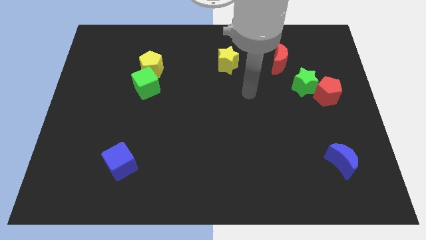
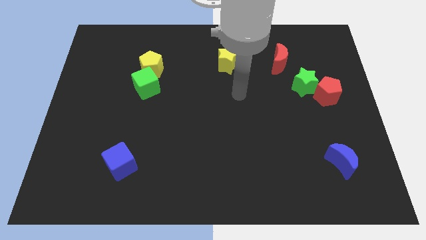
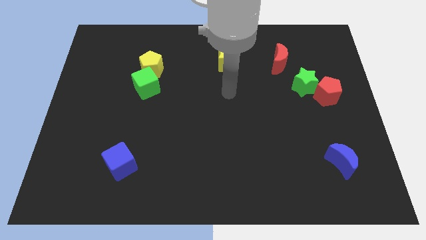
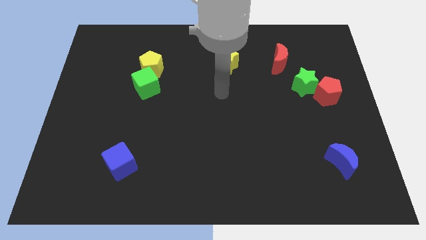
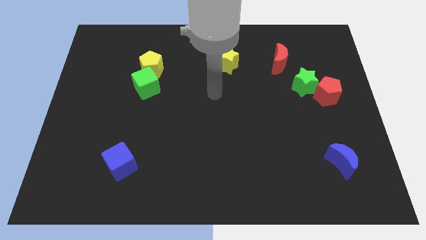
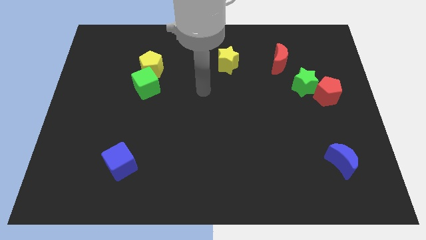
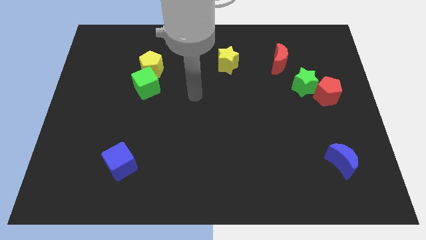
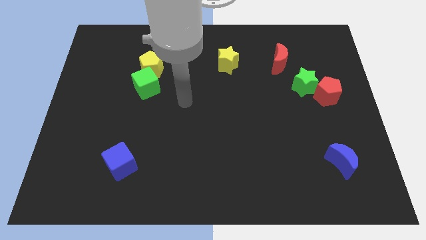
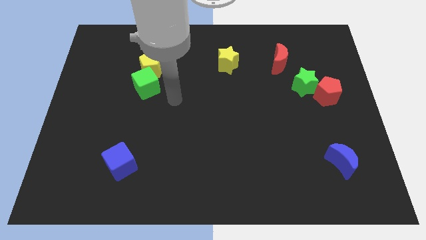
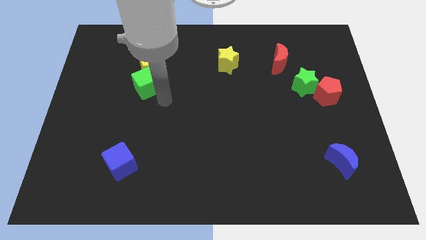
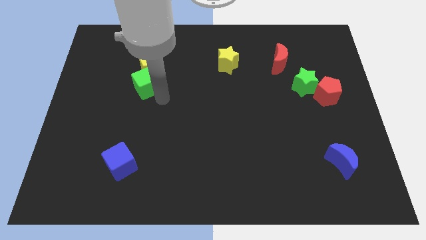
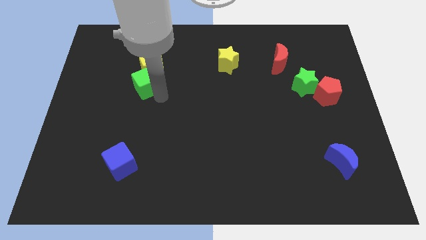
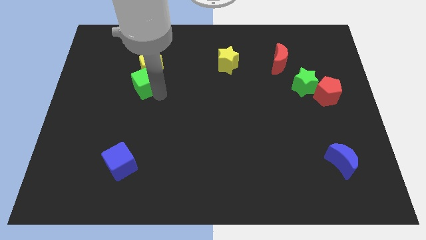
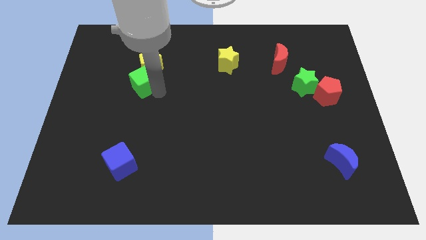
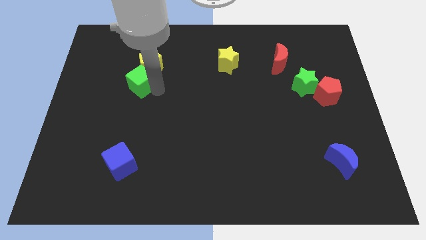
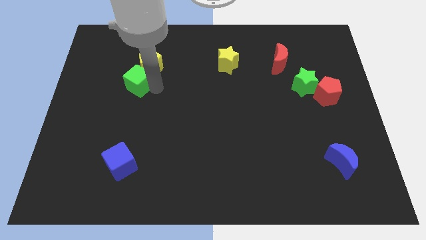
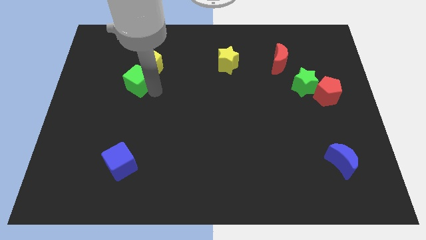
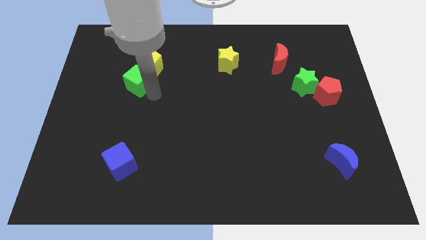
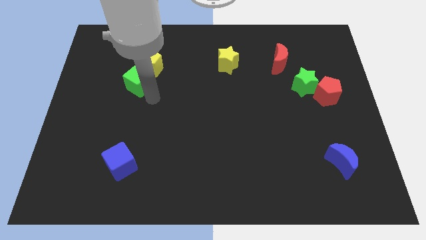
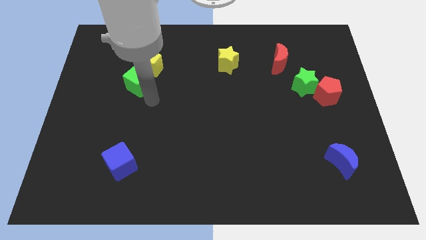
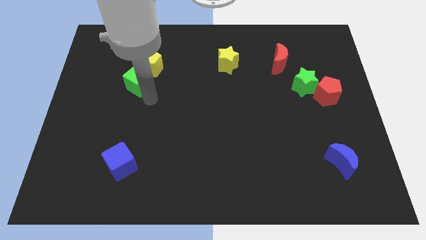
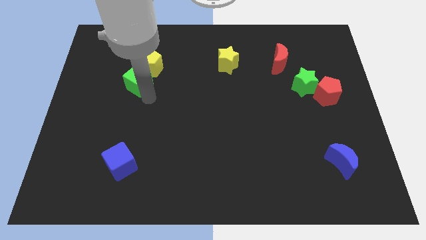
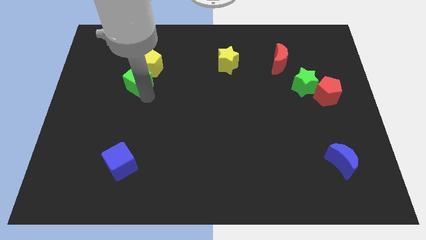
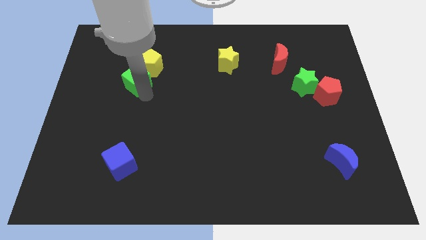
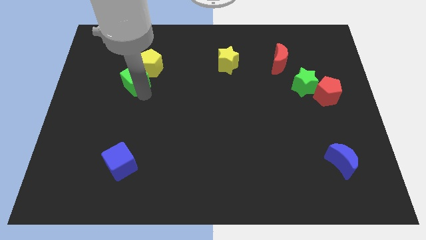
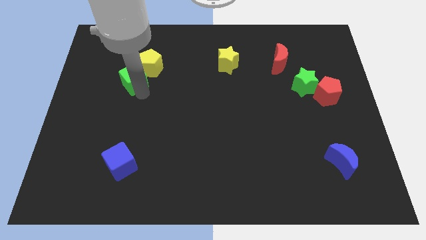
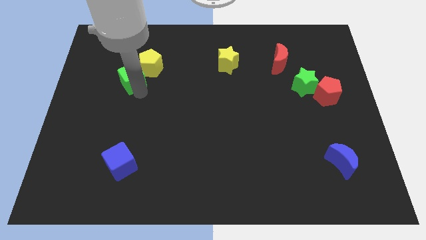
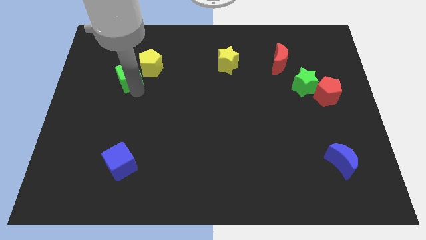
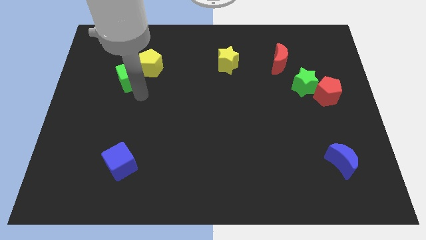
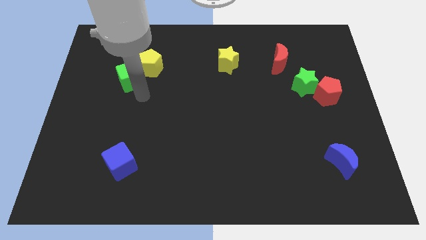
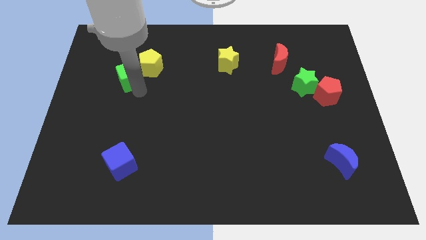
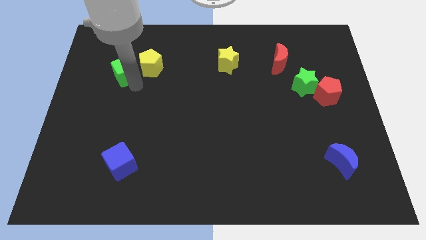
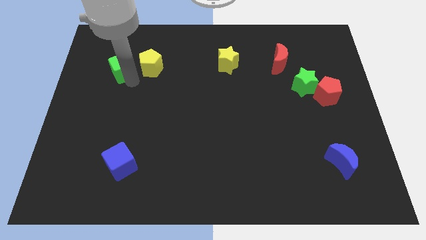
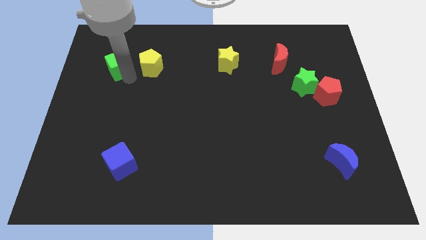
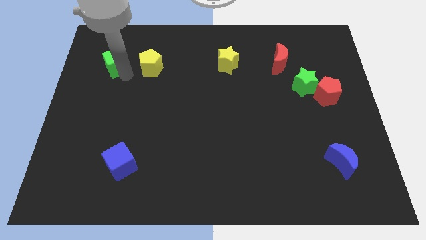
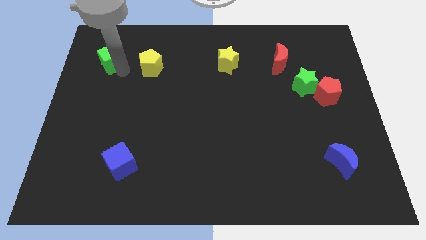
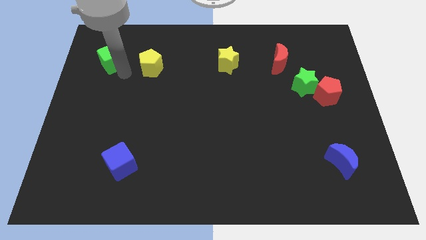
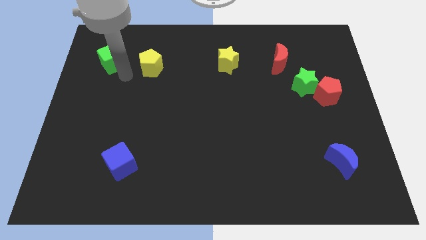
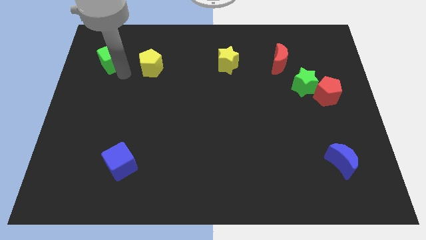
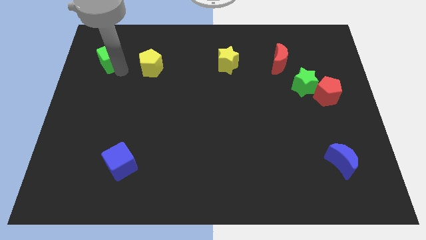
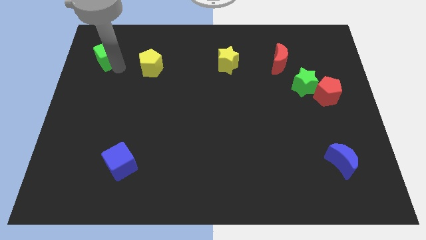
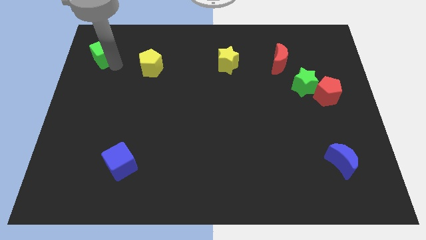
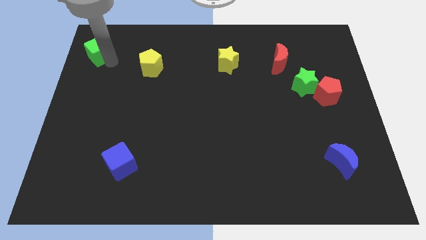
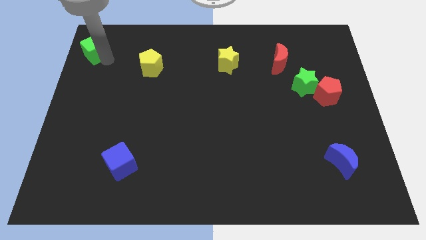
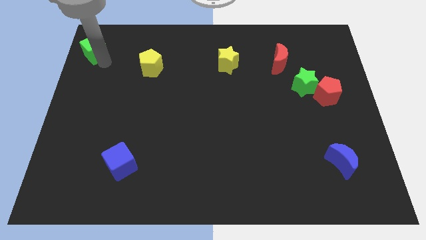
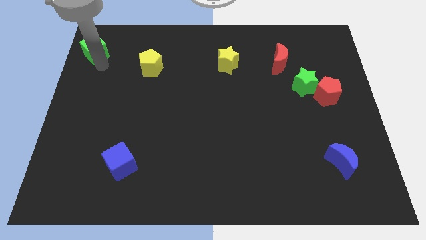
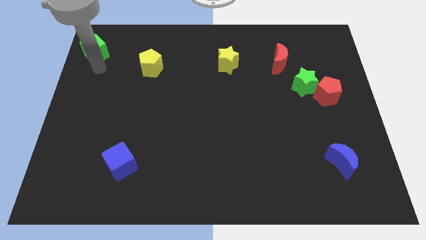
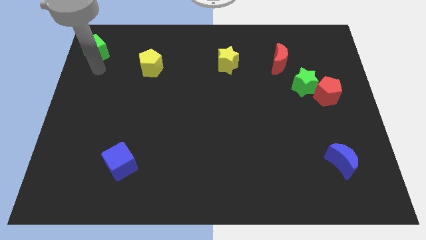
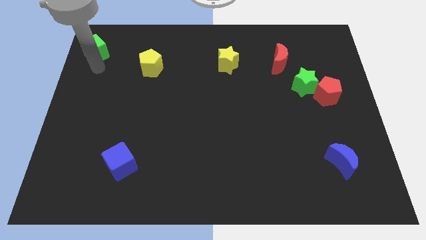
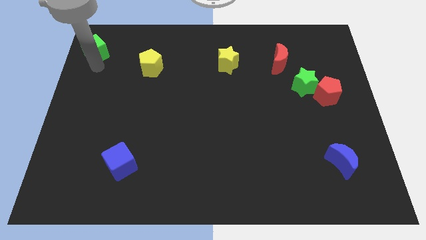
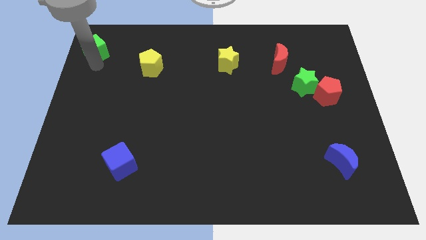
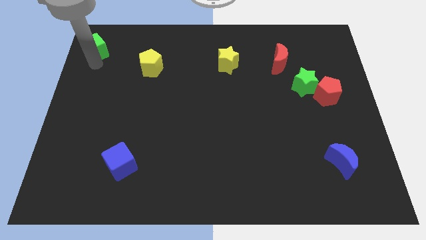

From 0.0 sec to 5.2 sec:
move the green cube to the top left corner

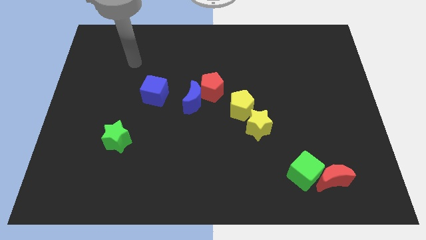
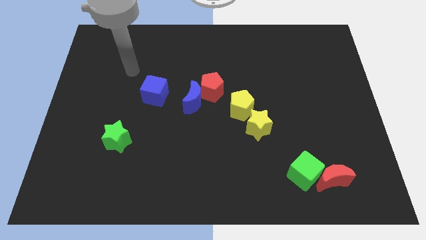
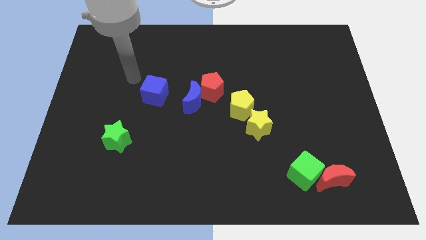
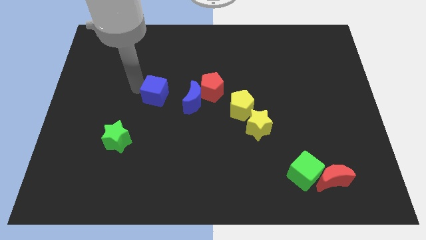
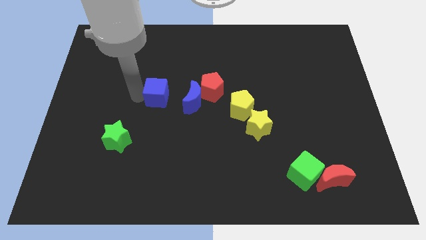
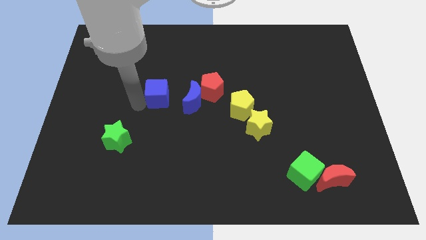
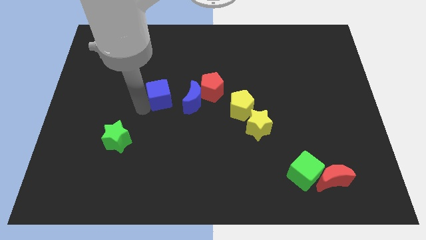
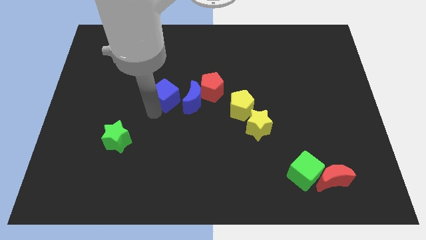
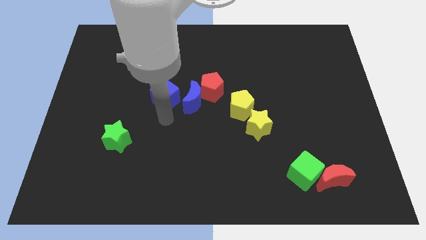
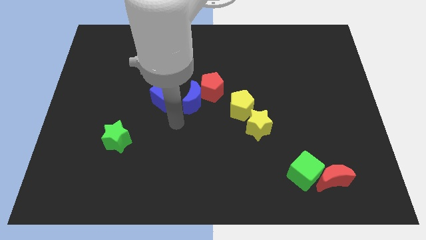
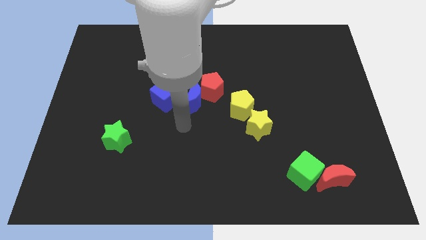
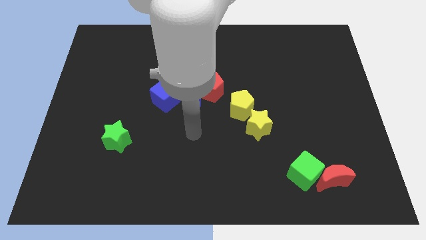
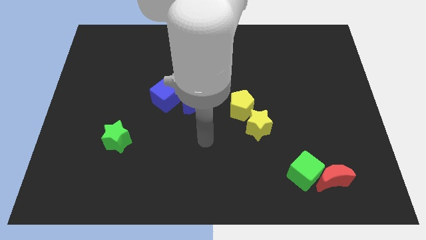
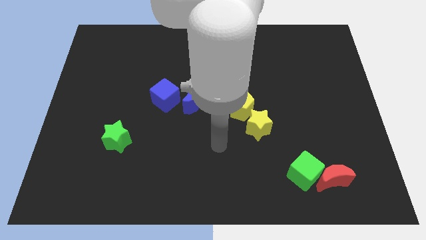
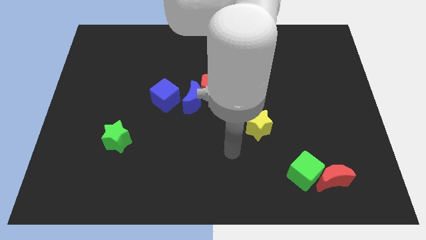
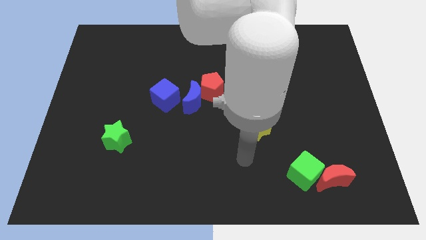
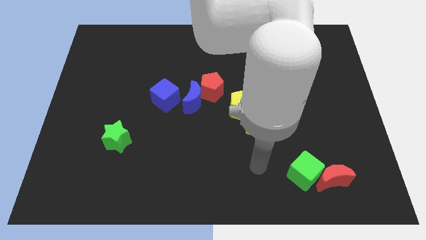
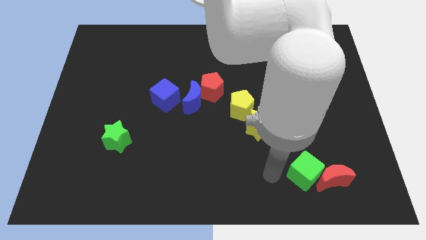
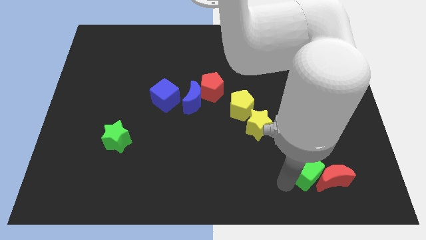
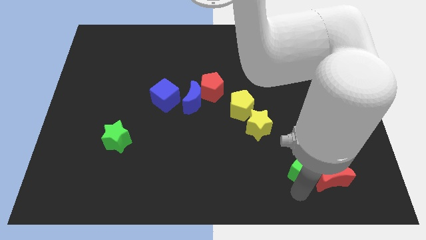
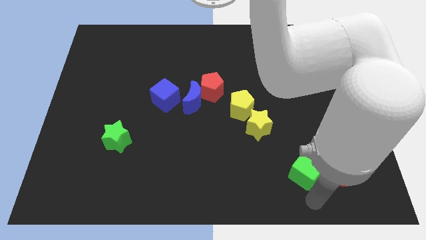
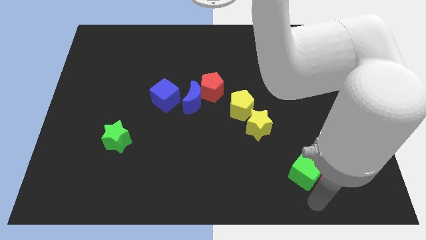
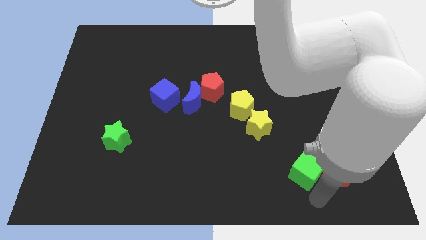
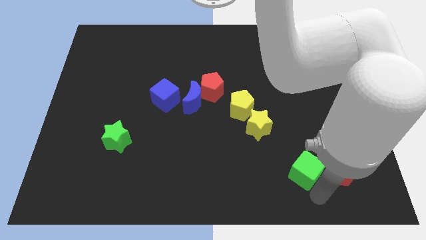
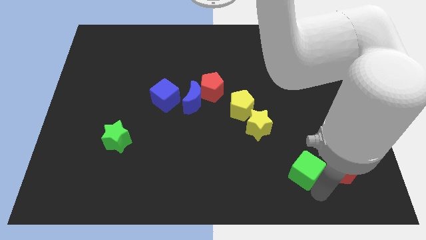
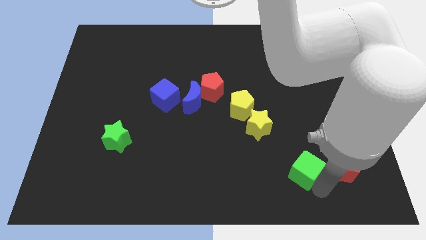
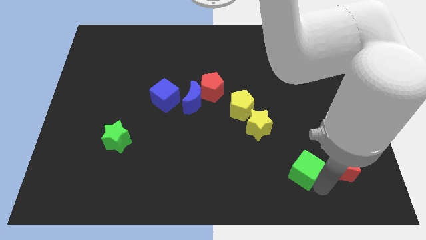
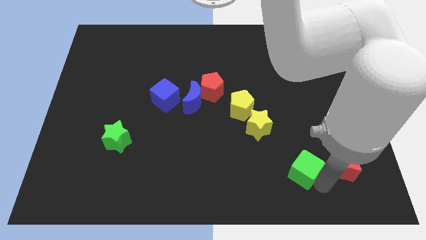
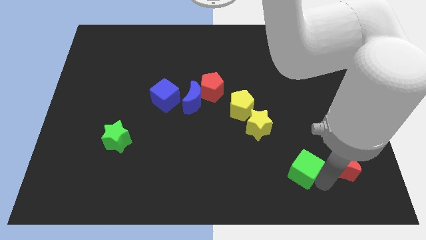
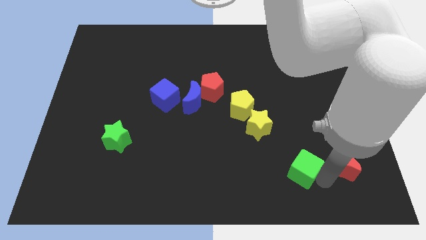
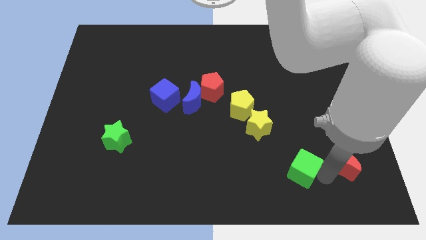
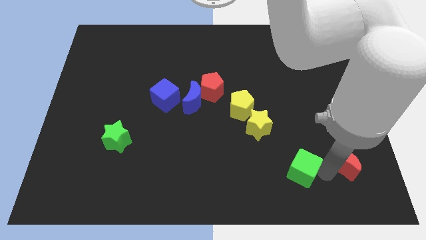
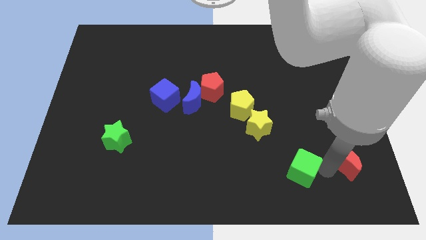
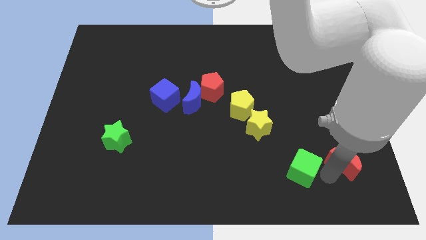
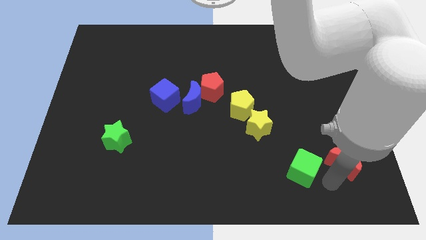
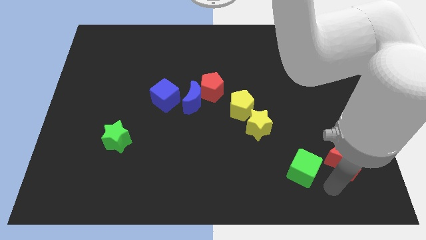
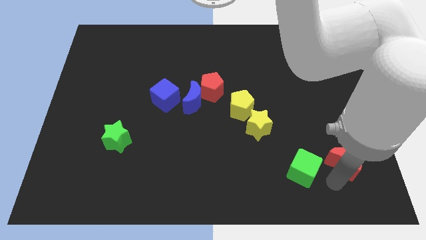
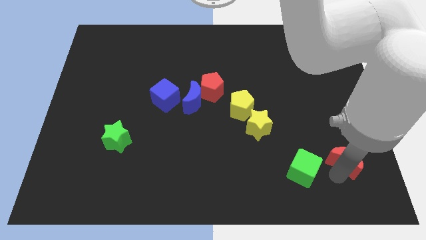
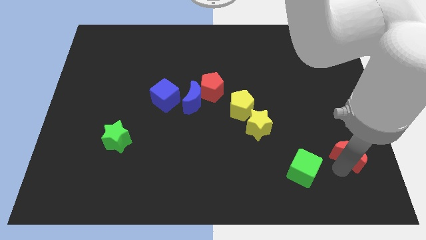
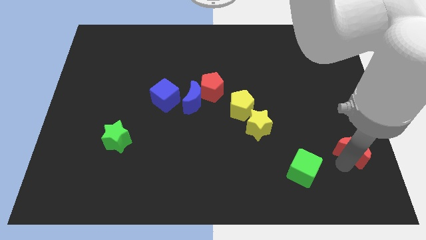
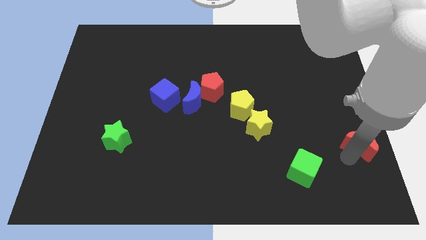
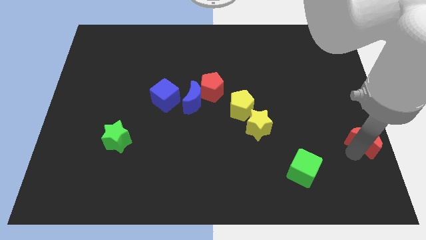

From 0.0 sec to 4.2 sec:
slide the red moon to the right side of the board
